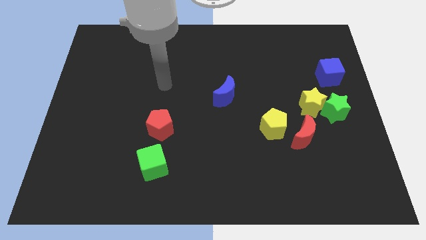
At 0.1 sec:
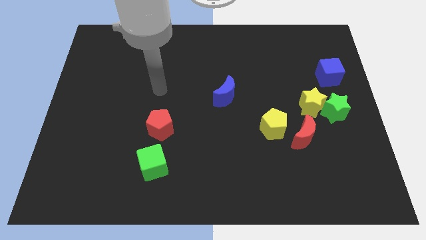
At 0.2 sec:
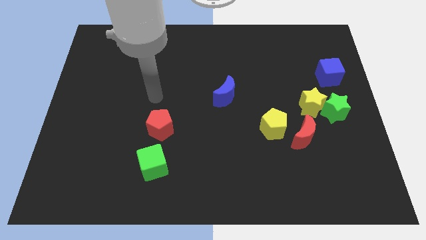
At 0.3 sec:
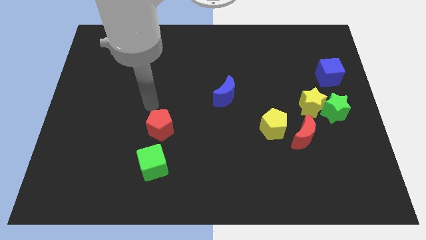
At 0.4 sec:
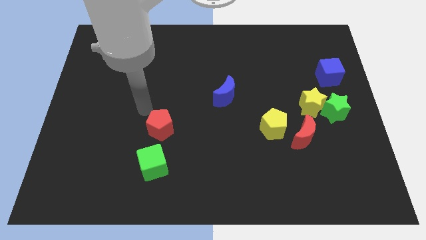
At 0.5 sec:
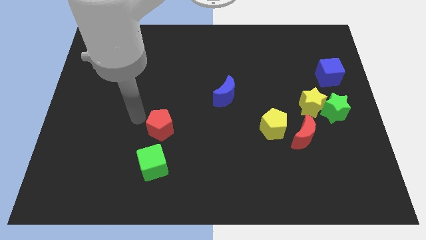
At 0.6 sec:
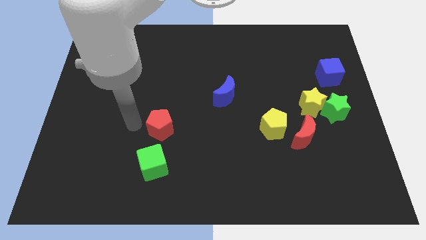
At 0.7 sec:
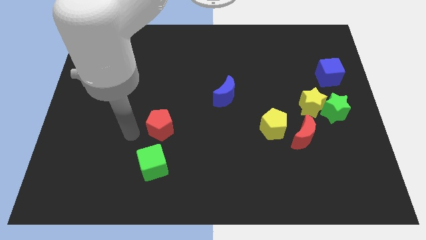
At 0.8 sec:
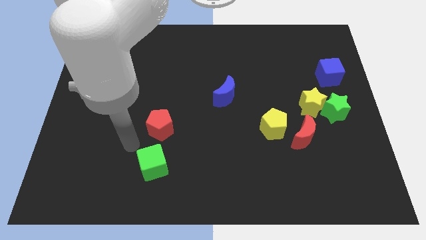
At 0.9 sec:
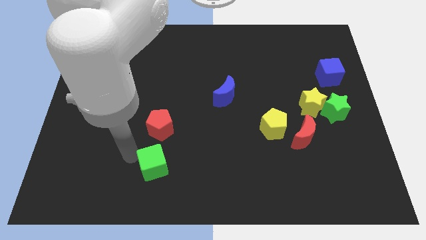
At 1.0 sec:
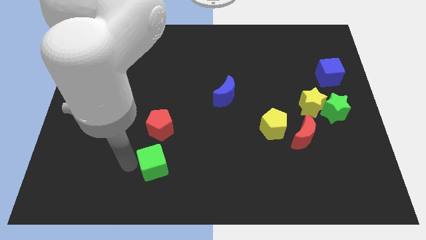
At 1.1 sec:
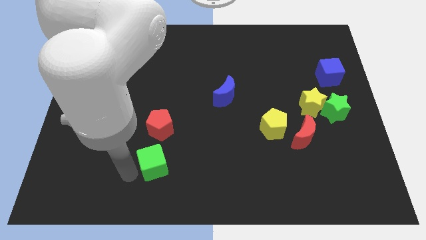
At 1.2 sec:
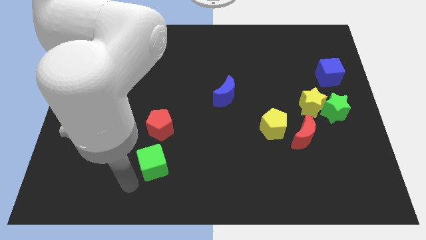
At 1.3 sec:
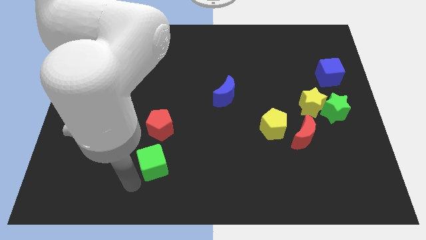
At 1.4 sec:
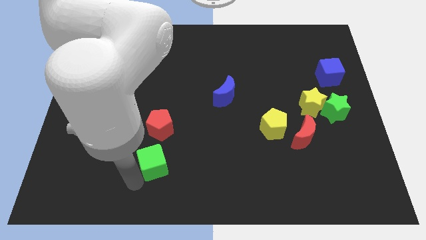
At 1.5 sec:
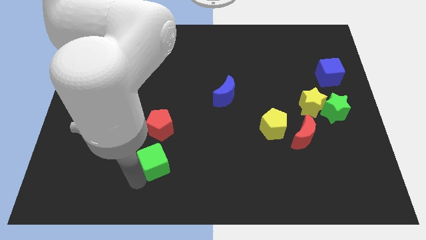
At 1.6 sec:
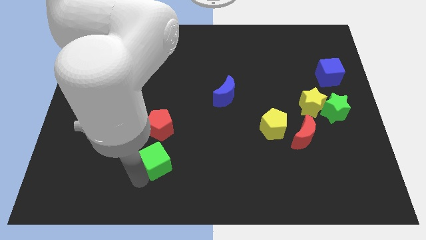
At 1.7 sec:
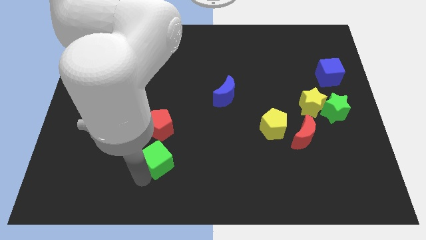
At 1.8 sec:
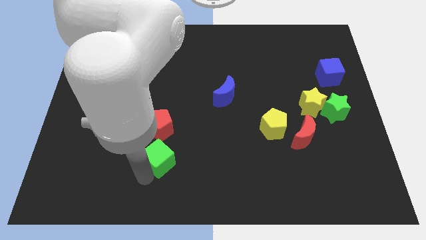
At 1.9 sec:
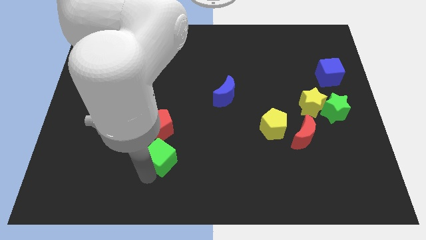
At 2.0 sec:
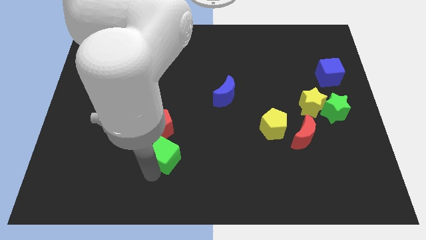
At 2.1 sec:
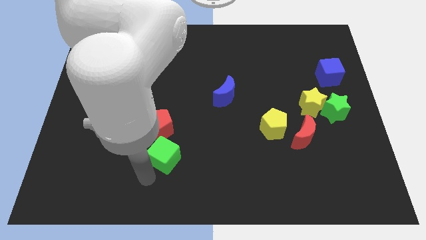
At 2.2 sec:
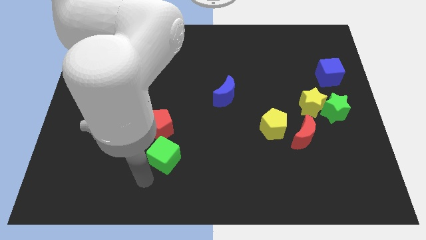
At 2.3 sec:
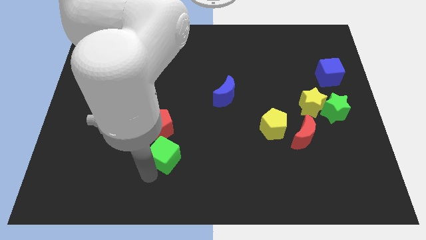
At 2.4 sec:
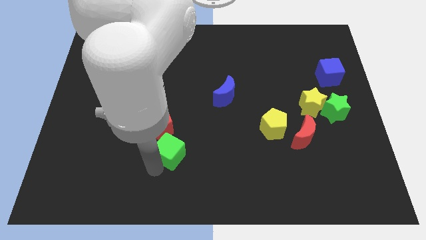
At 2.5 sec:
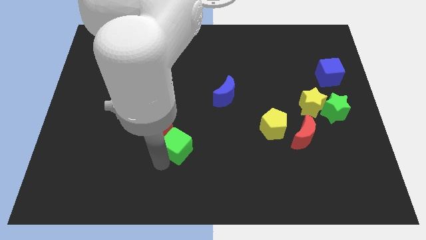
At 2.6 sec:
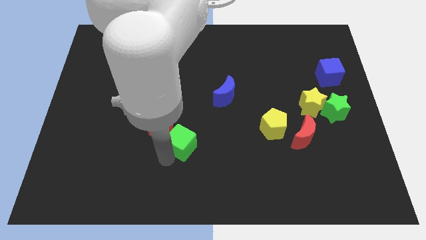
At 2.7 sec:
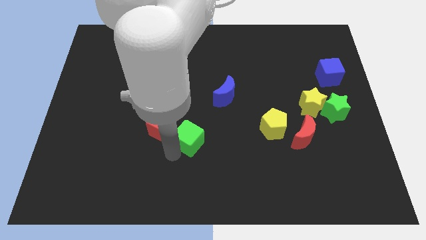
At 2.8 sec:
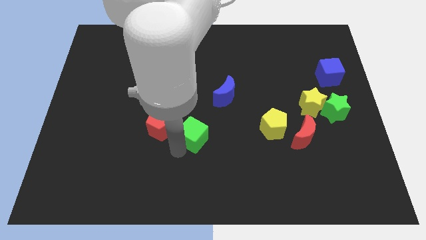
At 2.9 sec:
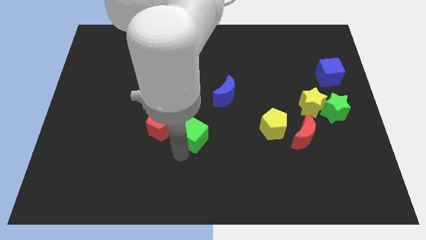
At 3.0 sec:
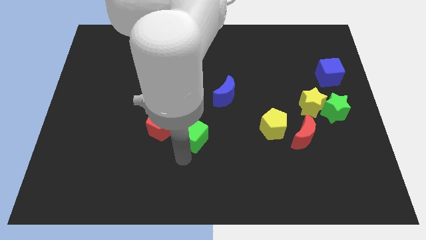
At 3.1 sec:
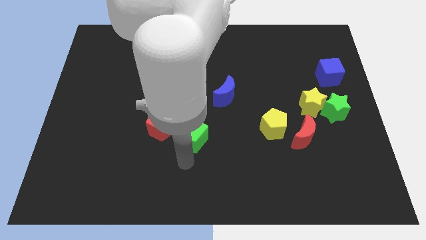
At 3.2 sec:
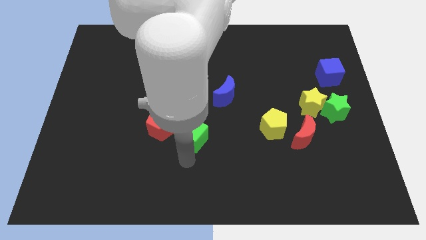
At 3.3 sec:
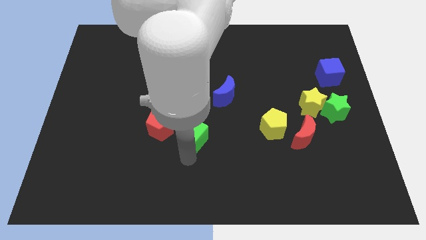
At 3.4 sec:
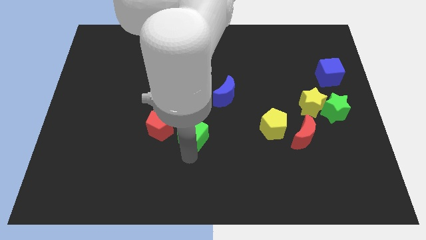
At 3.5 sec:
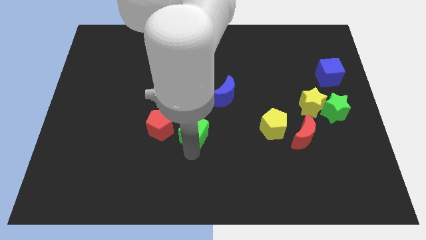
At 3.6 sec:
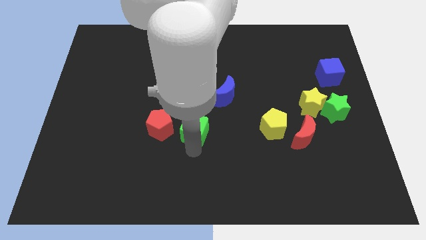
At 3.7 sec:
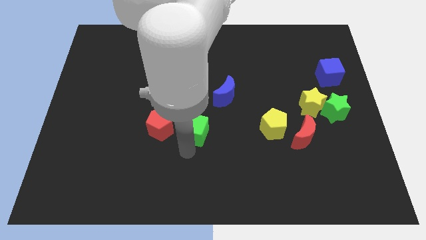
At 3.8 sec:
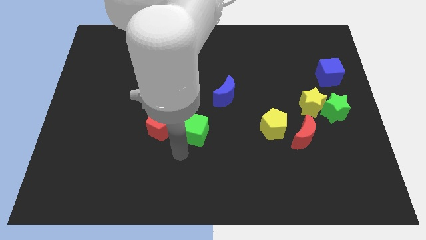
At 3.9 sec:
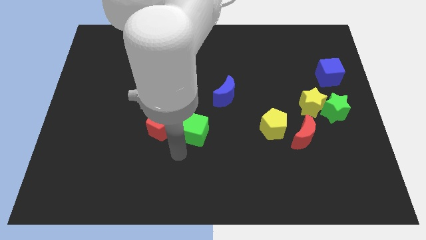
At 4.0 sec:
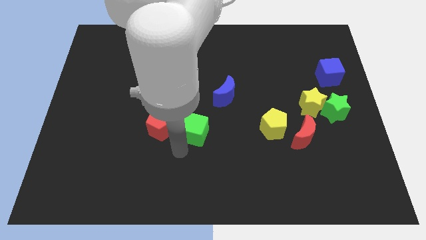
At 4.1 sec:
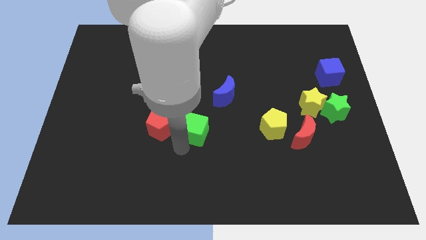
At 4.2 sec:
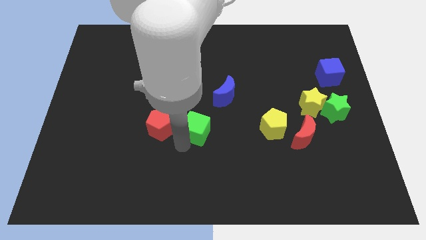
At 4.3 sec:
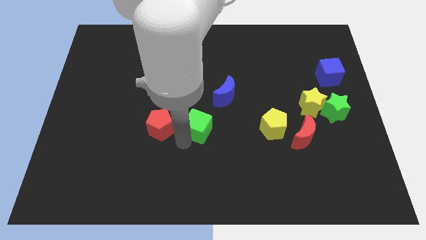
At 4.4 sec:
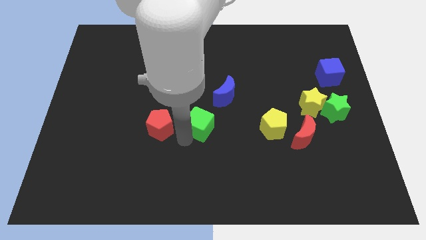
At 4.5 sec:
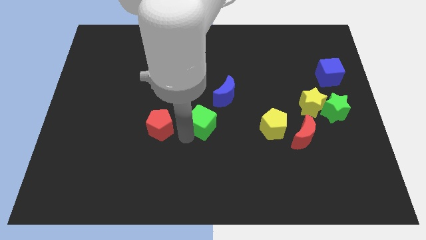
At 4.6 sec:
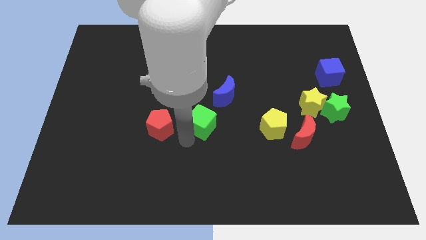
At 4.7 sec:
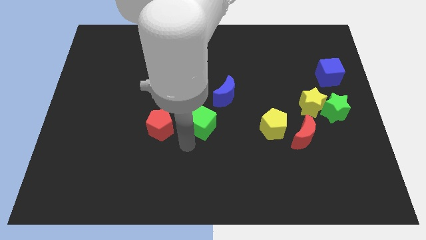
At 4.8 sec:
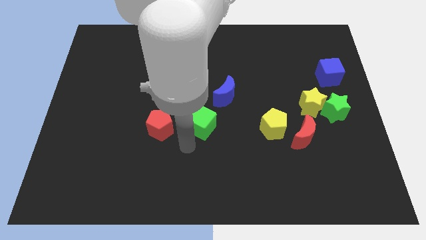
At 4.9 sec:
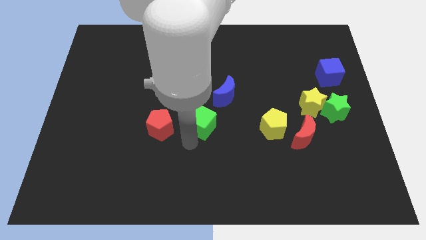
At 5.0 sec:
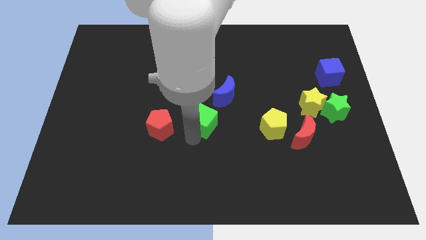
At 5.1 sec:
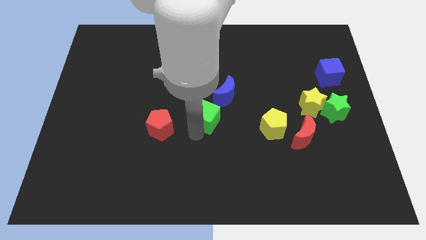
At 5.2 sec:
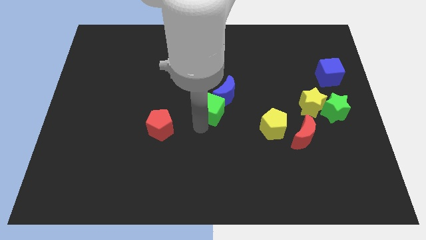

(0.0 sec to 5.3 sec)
slide the green cube to the blue moon

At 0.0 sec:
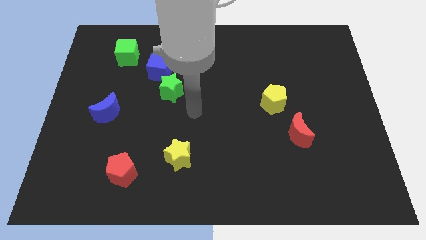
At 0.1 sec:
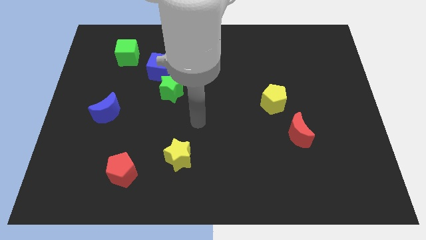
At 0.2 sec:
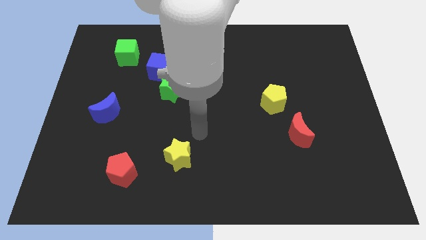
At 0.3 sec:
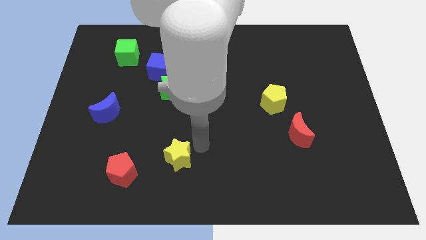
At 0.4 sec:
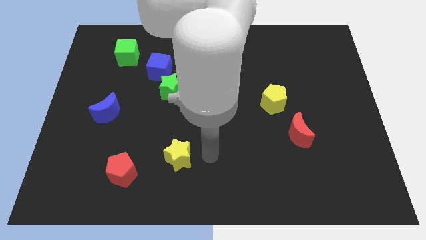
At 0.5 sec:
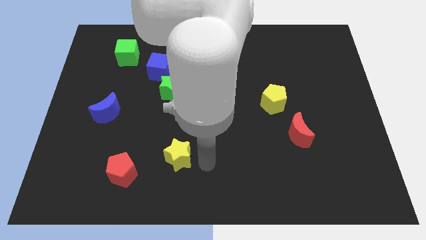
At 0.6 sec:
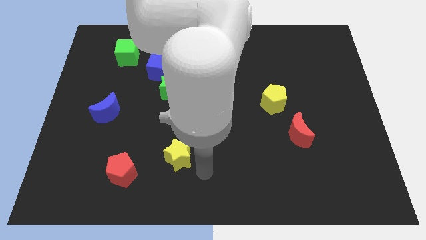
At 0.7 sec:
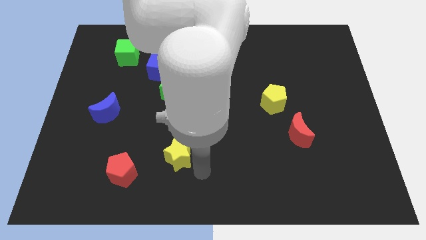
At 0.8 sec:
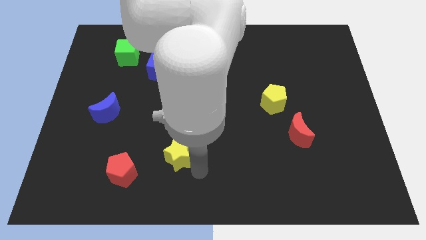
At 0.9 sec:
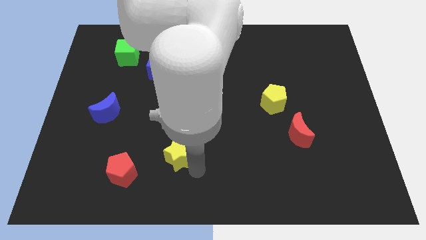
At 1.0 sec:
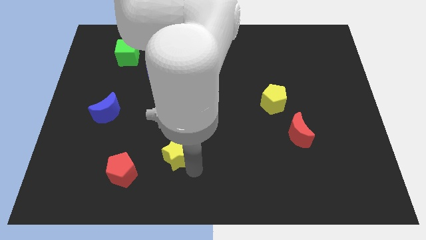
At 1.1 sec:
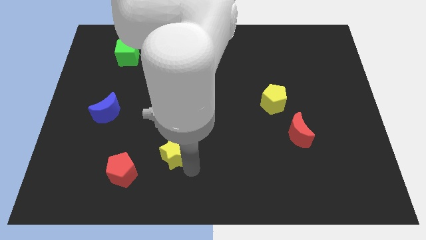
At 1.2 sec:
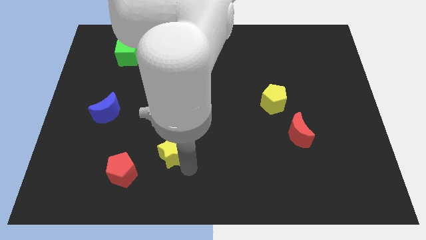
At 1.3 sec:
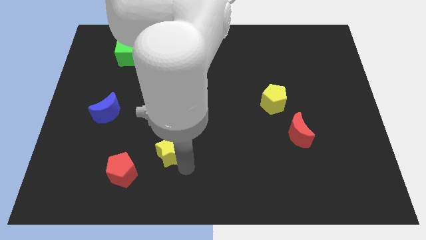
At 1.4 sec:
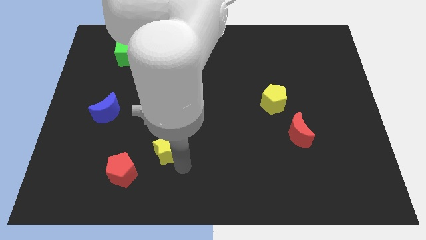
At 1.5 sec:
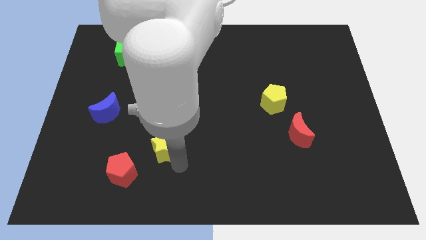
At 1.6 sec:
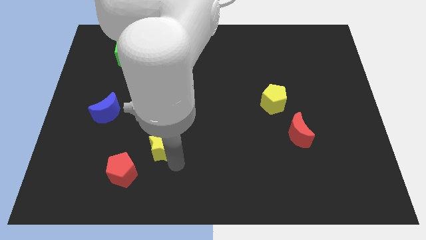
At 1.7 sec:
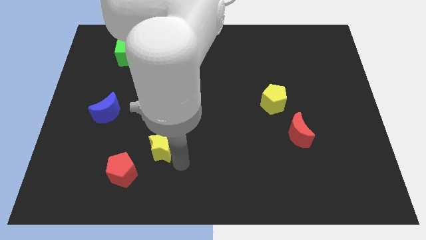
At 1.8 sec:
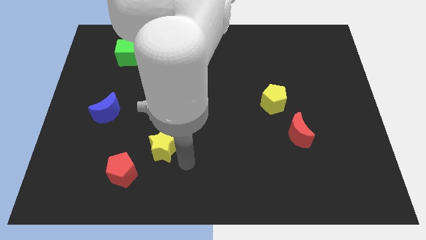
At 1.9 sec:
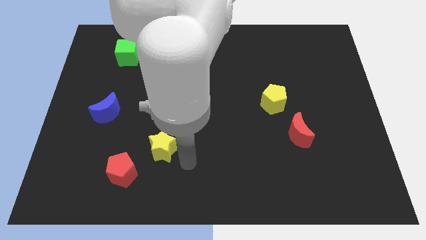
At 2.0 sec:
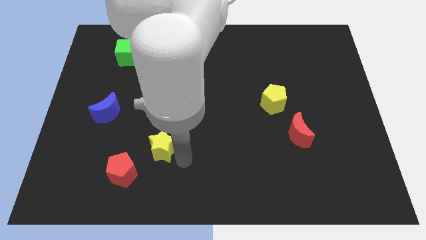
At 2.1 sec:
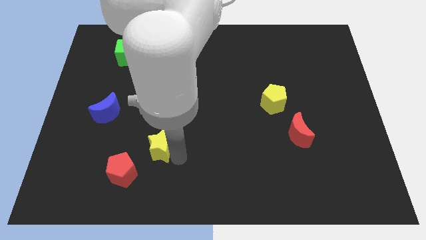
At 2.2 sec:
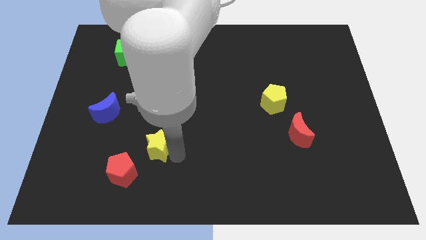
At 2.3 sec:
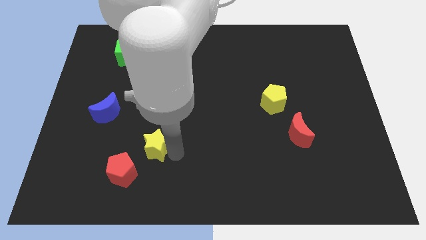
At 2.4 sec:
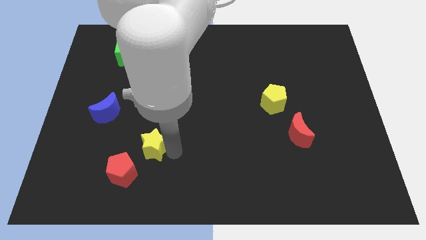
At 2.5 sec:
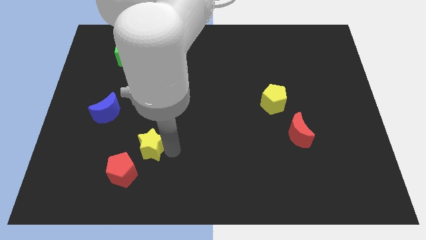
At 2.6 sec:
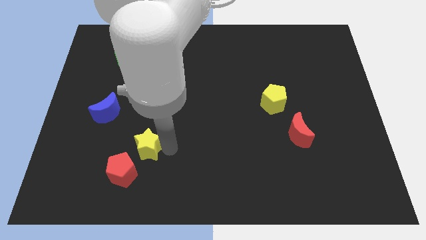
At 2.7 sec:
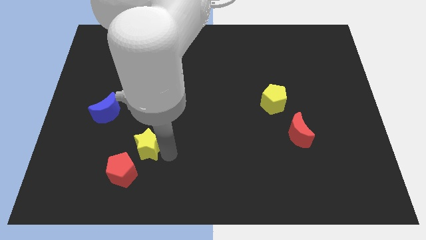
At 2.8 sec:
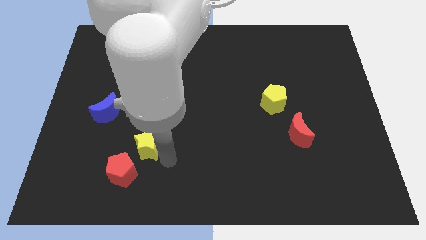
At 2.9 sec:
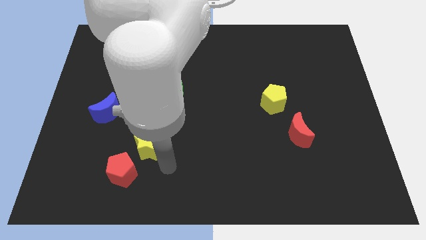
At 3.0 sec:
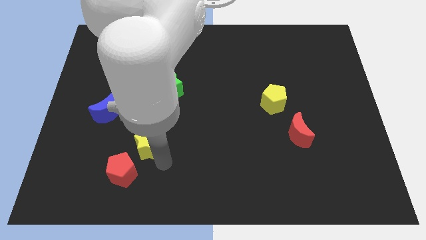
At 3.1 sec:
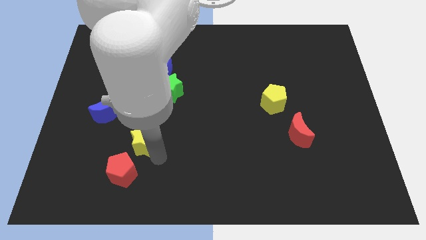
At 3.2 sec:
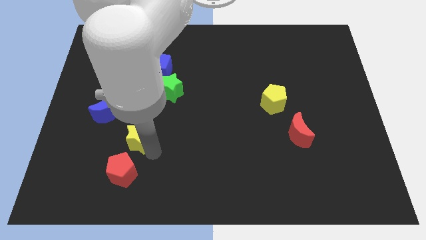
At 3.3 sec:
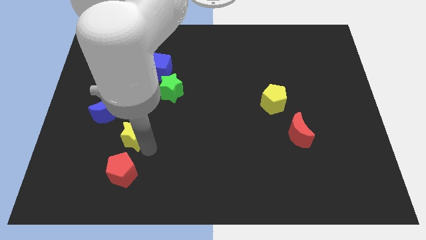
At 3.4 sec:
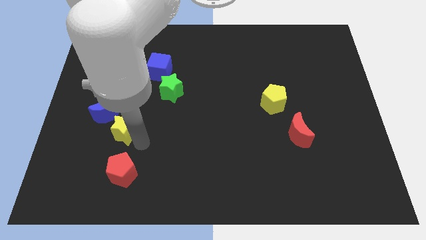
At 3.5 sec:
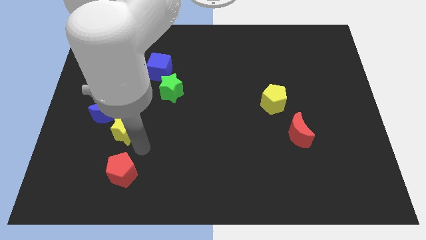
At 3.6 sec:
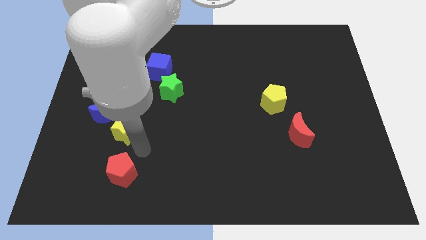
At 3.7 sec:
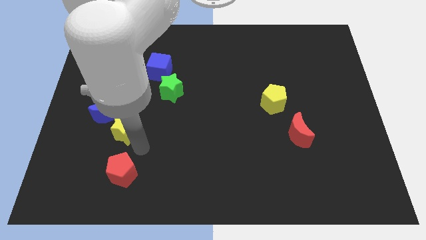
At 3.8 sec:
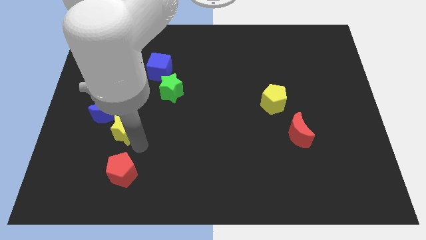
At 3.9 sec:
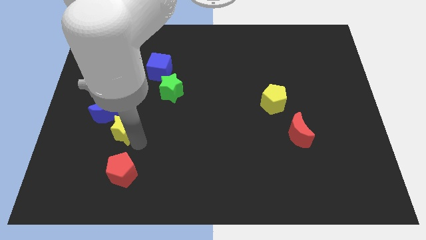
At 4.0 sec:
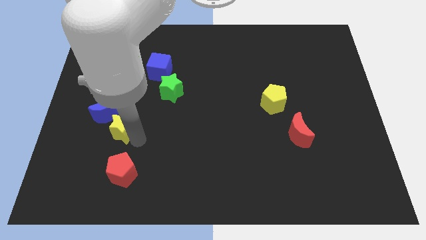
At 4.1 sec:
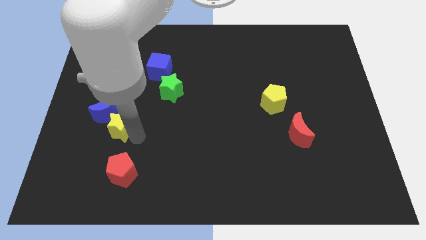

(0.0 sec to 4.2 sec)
move the yellow star to the blue moon
